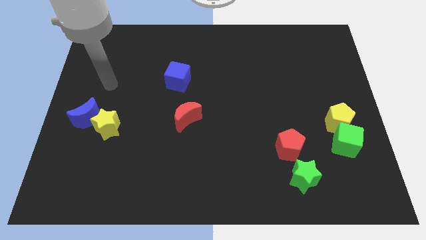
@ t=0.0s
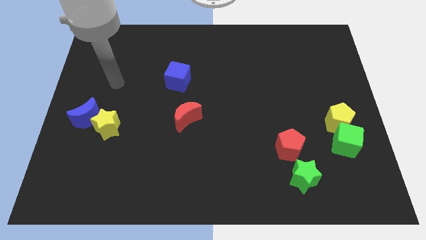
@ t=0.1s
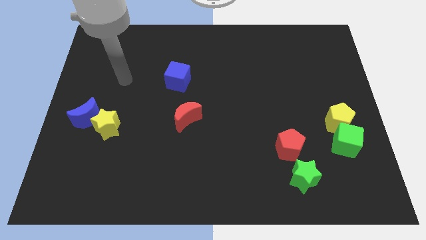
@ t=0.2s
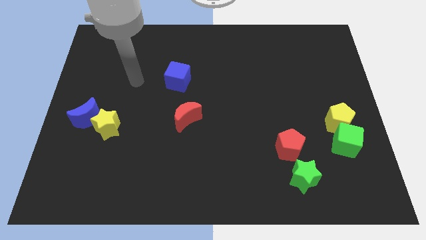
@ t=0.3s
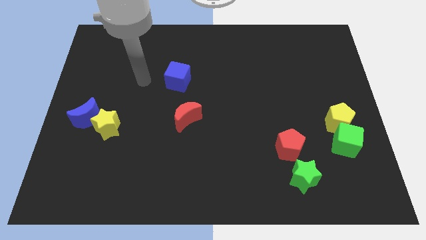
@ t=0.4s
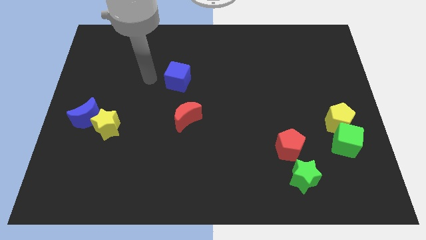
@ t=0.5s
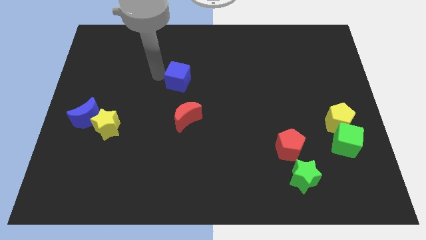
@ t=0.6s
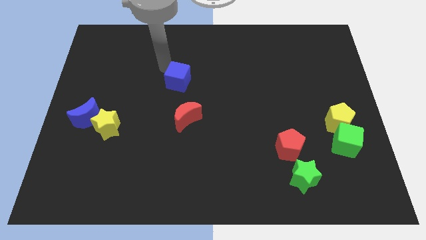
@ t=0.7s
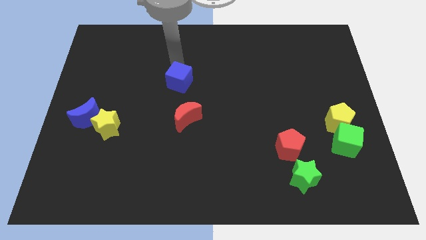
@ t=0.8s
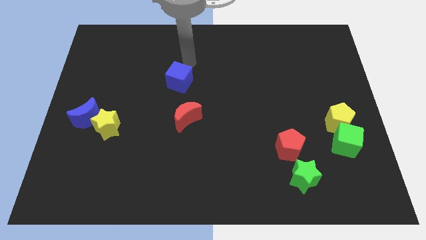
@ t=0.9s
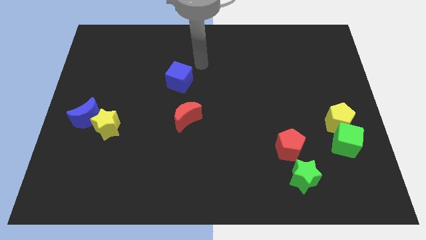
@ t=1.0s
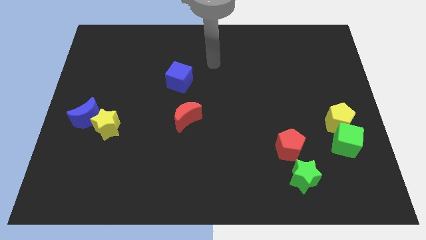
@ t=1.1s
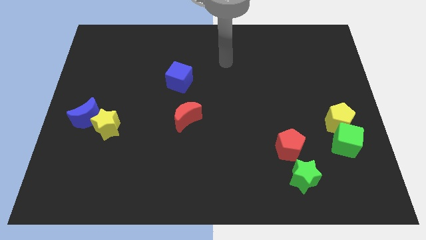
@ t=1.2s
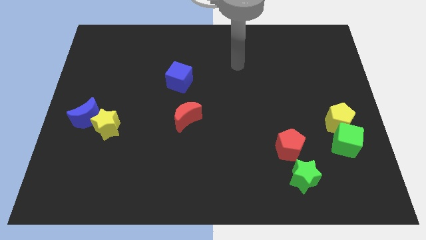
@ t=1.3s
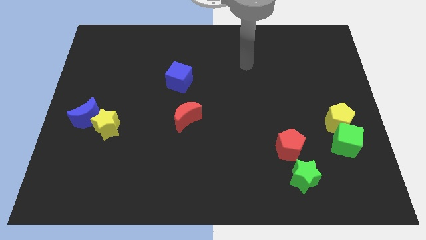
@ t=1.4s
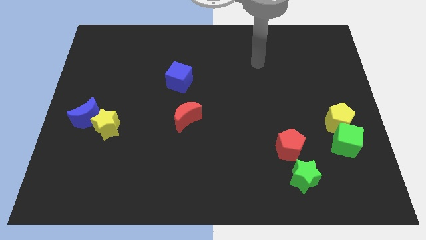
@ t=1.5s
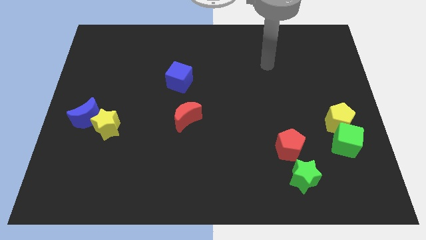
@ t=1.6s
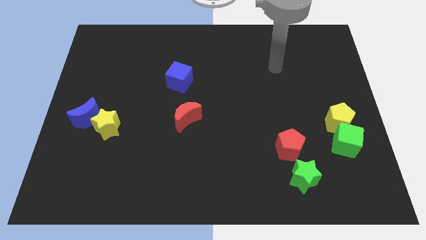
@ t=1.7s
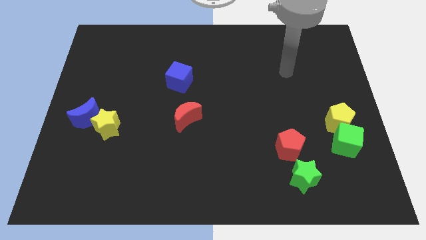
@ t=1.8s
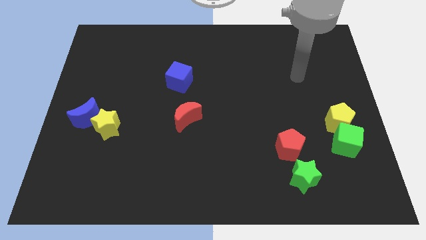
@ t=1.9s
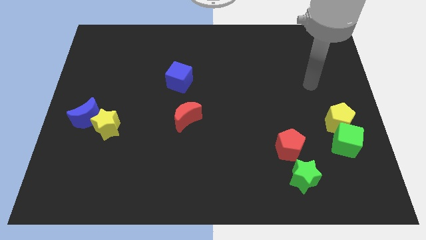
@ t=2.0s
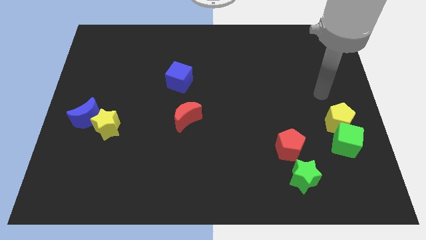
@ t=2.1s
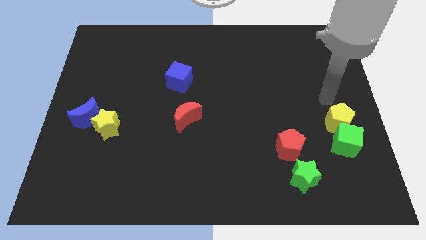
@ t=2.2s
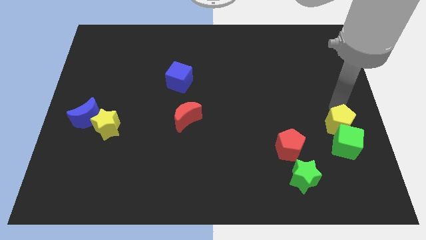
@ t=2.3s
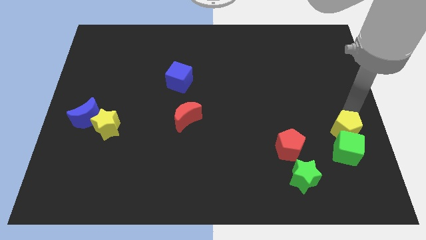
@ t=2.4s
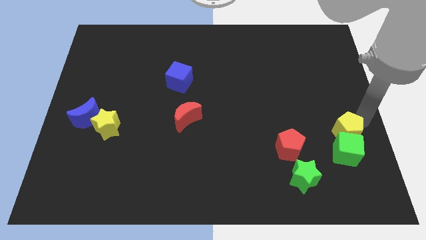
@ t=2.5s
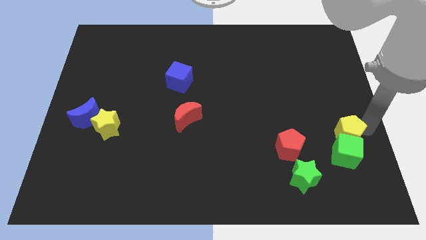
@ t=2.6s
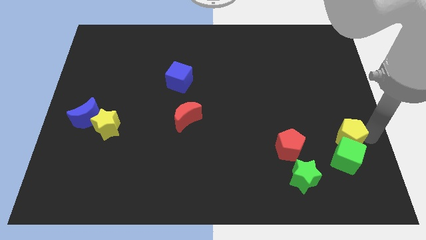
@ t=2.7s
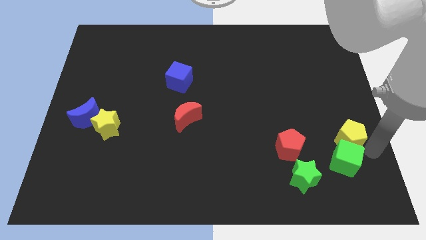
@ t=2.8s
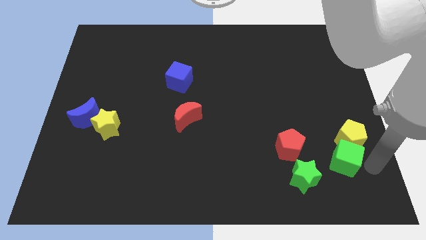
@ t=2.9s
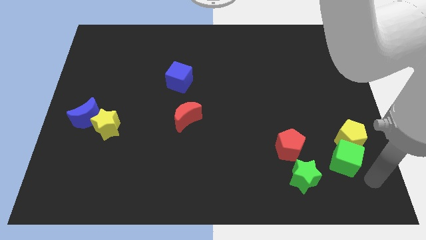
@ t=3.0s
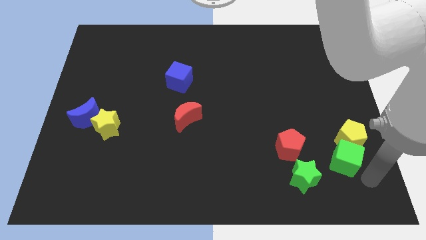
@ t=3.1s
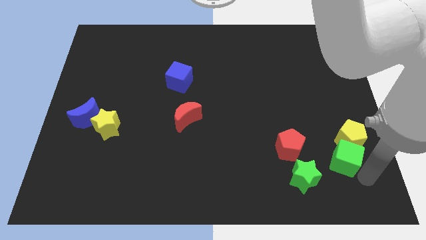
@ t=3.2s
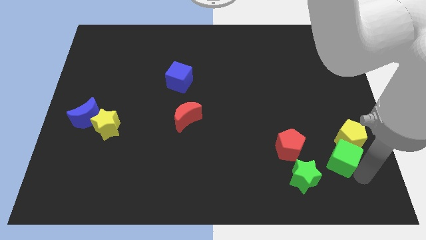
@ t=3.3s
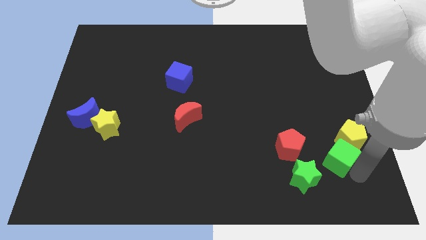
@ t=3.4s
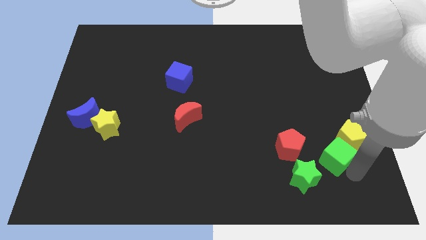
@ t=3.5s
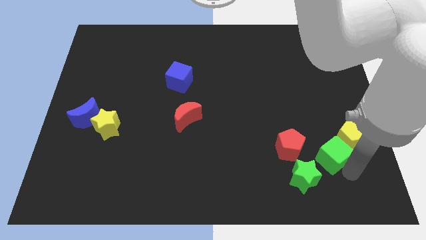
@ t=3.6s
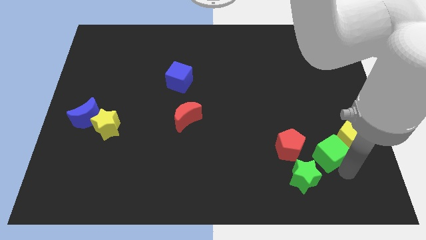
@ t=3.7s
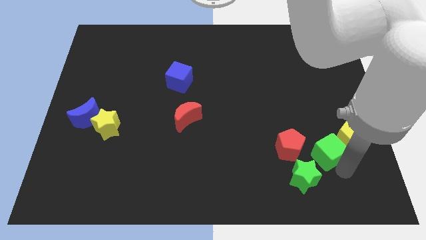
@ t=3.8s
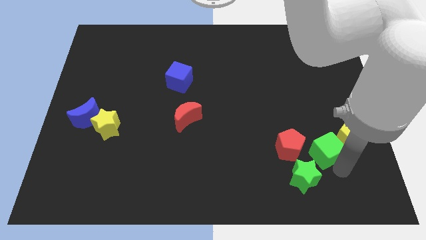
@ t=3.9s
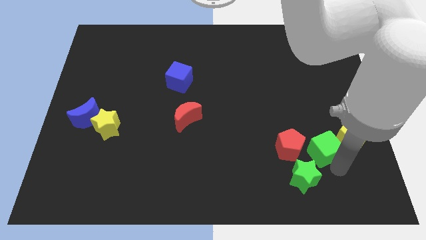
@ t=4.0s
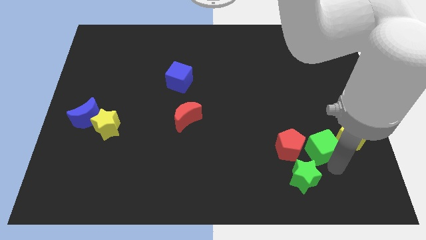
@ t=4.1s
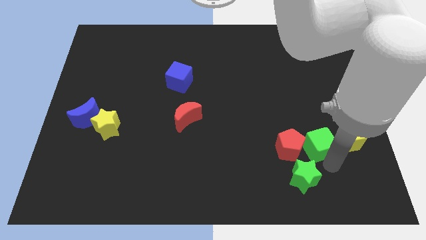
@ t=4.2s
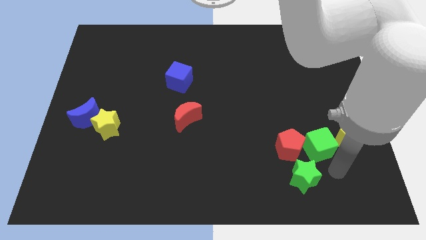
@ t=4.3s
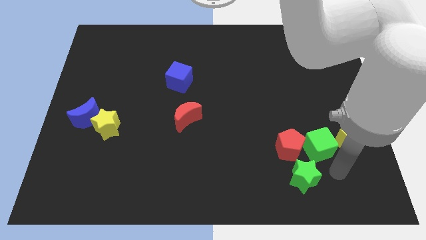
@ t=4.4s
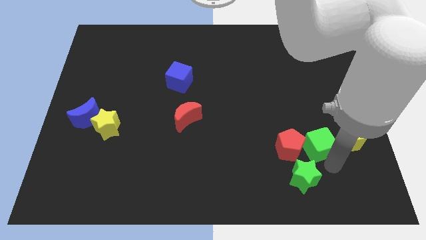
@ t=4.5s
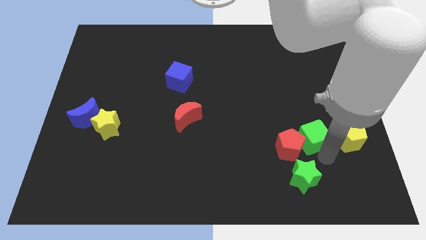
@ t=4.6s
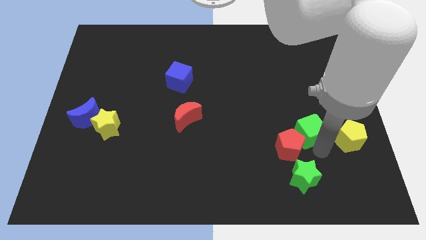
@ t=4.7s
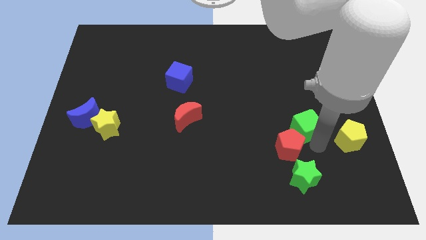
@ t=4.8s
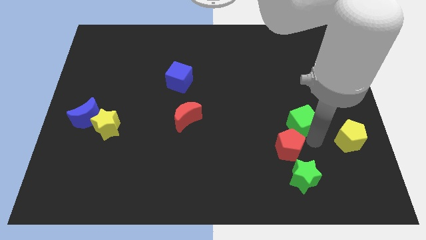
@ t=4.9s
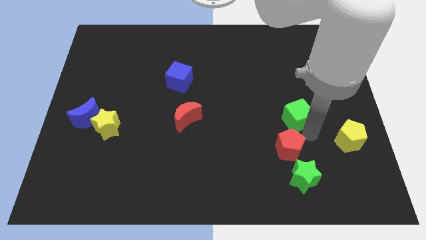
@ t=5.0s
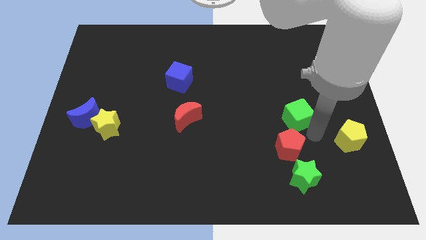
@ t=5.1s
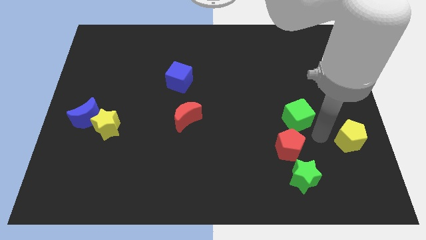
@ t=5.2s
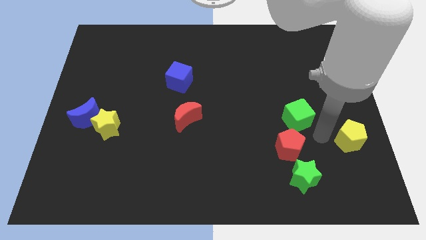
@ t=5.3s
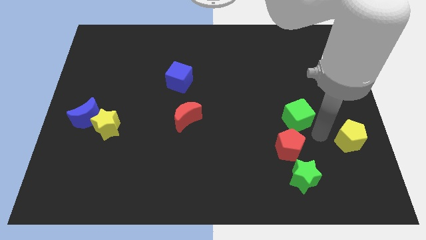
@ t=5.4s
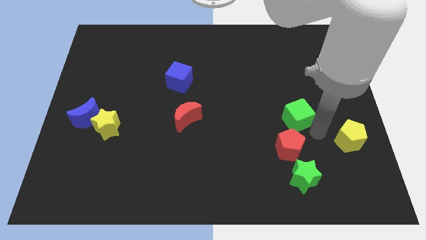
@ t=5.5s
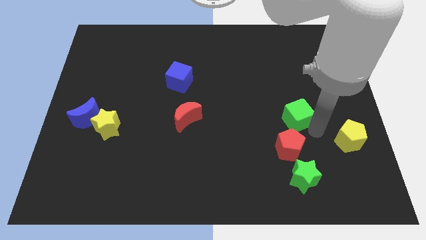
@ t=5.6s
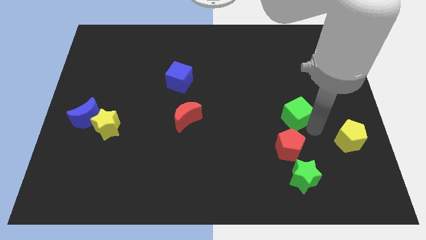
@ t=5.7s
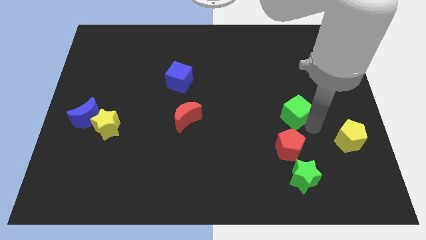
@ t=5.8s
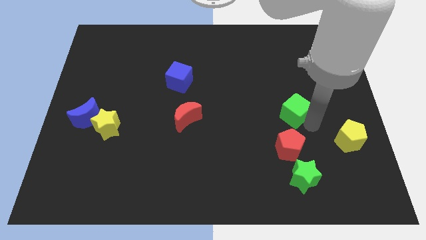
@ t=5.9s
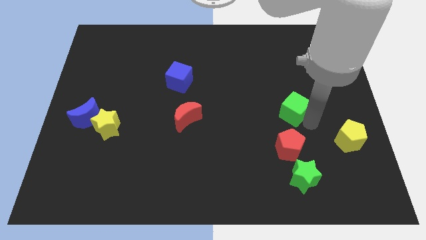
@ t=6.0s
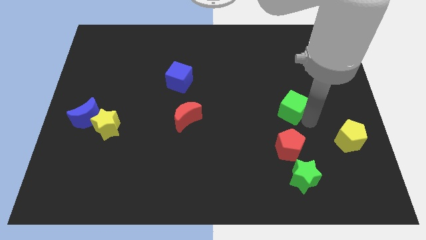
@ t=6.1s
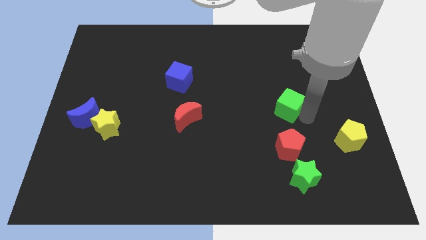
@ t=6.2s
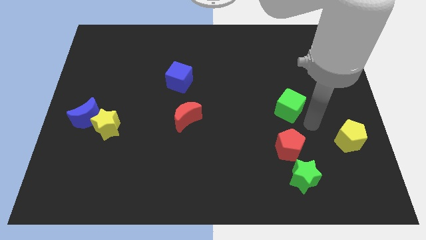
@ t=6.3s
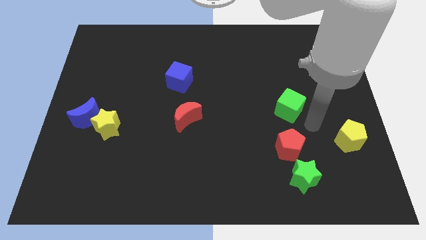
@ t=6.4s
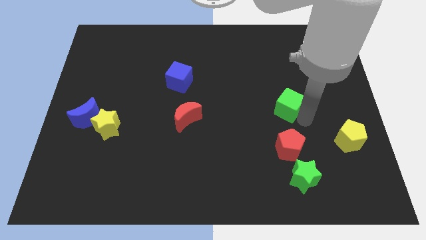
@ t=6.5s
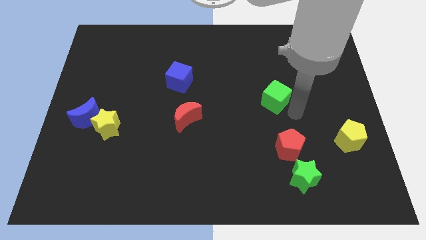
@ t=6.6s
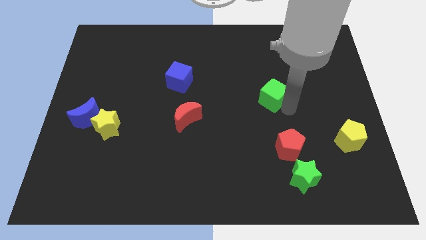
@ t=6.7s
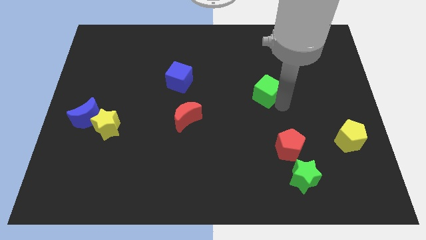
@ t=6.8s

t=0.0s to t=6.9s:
slide the green cube diagonally upwards and left

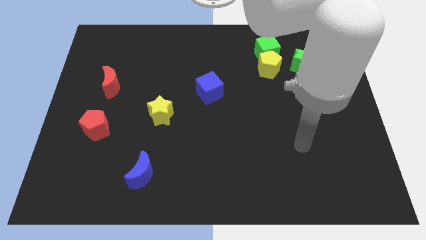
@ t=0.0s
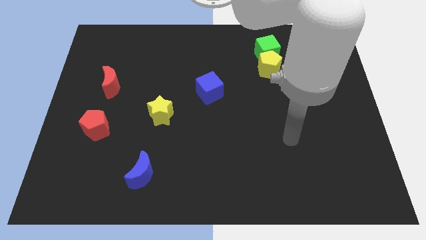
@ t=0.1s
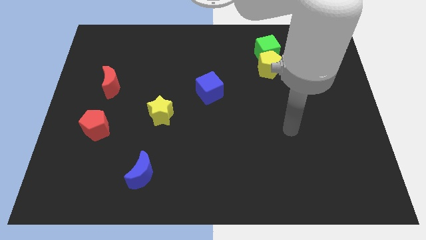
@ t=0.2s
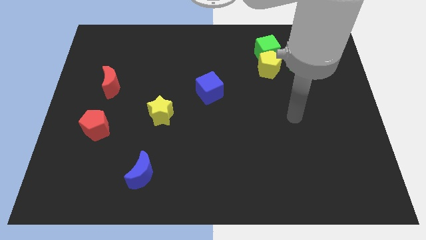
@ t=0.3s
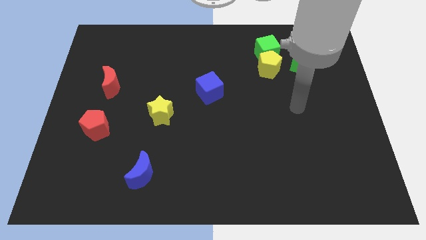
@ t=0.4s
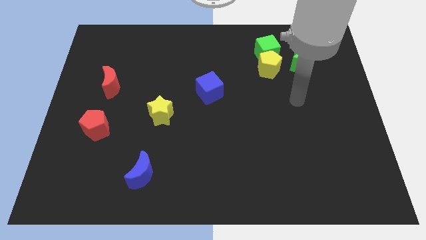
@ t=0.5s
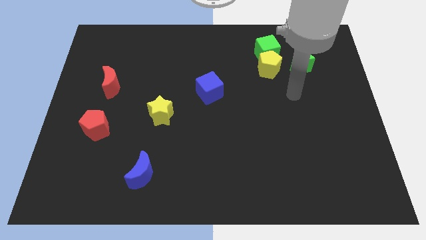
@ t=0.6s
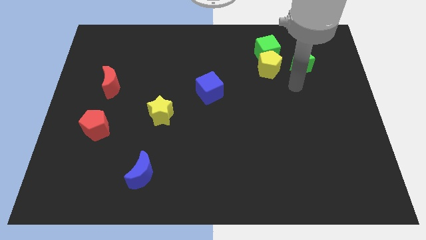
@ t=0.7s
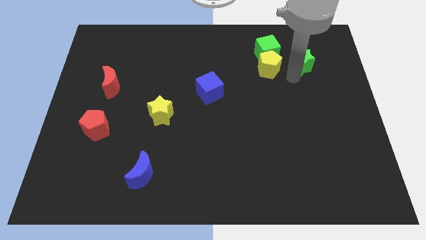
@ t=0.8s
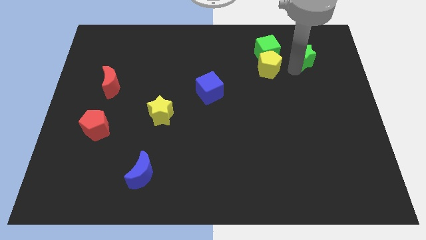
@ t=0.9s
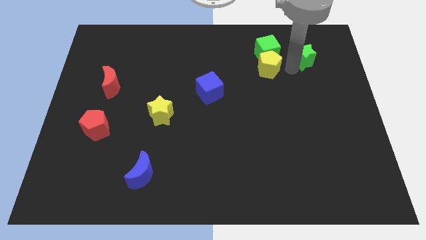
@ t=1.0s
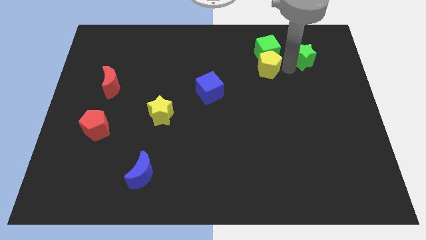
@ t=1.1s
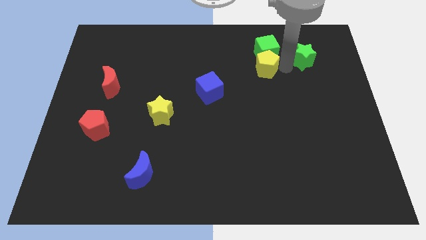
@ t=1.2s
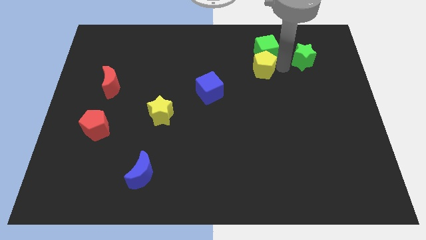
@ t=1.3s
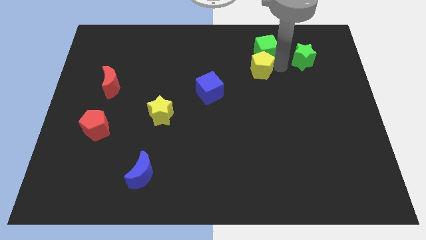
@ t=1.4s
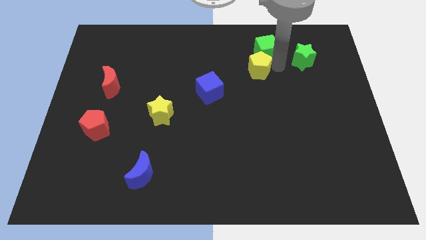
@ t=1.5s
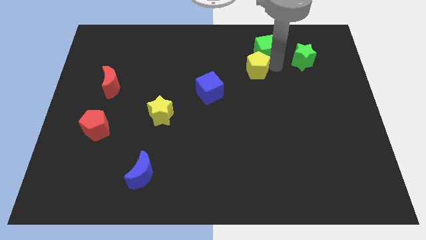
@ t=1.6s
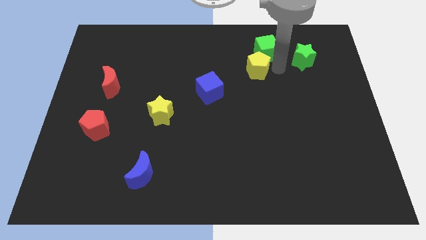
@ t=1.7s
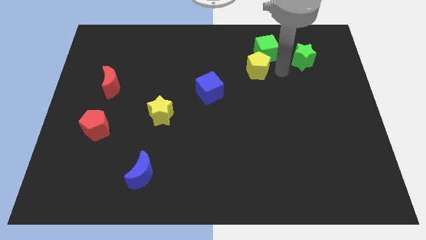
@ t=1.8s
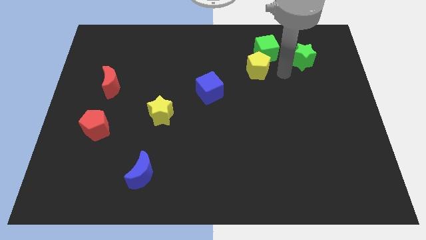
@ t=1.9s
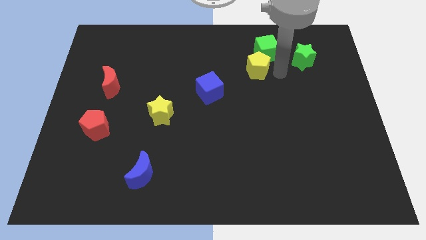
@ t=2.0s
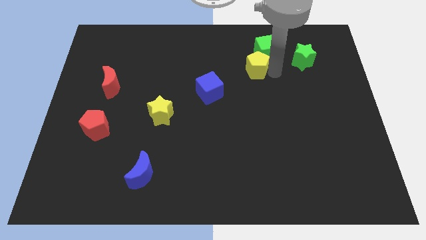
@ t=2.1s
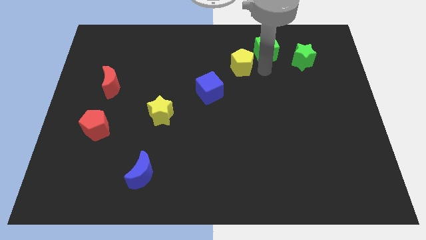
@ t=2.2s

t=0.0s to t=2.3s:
slightly move the yellow pentagon left
